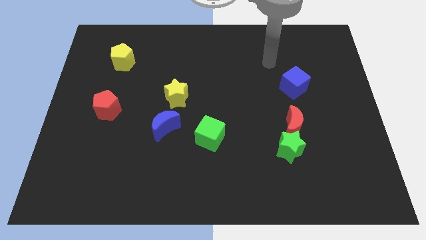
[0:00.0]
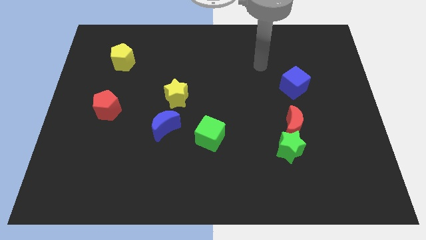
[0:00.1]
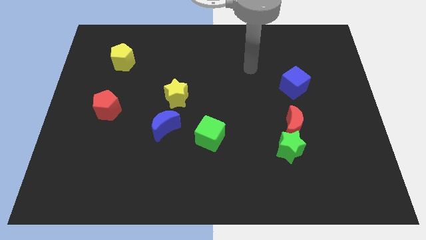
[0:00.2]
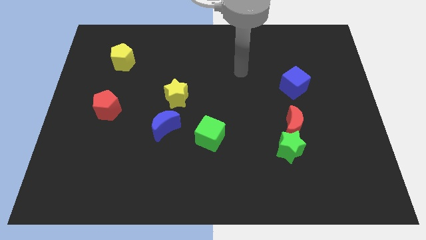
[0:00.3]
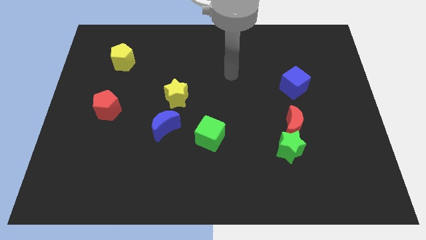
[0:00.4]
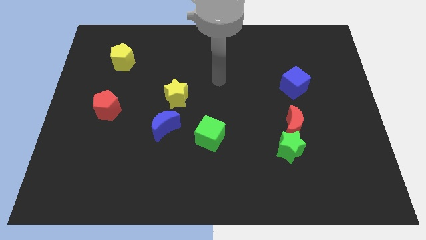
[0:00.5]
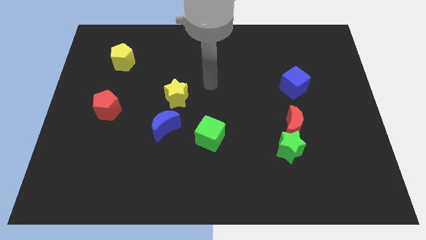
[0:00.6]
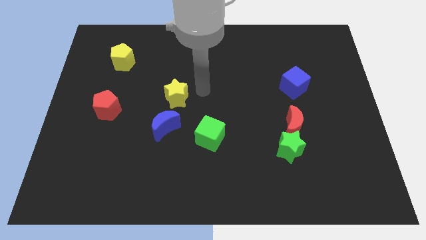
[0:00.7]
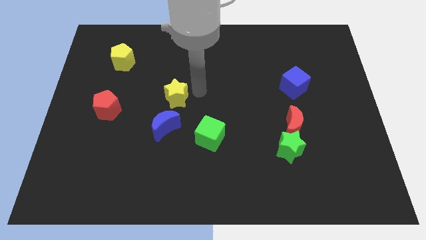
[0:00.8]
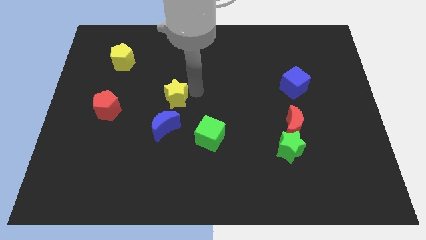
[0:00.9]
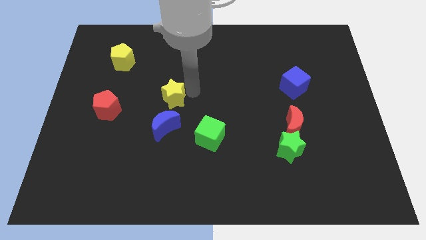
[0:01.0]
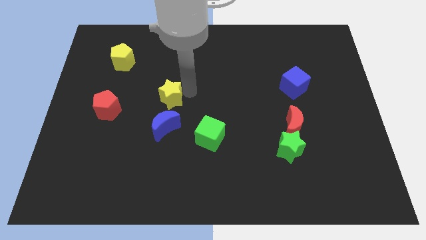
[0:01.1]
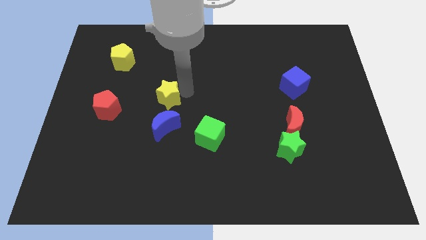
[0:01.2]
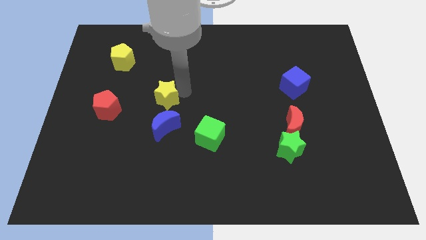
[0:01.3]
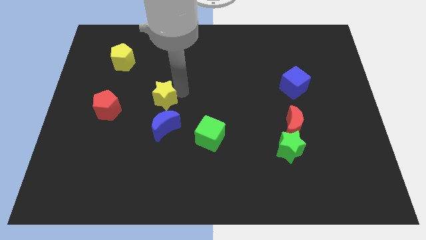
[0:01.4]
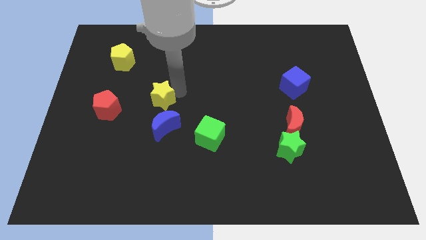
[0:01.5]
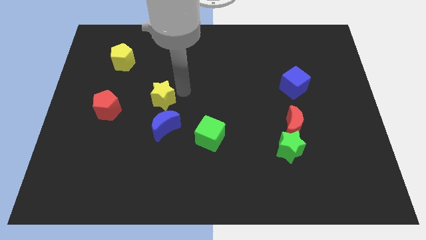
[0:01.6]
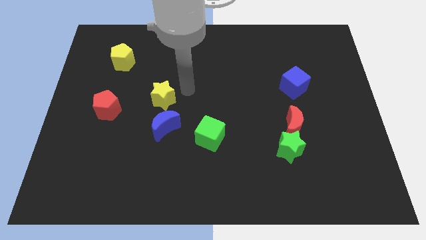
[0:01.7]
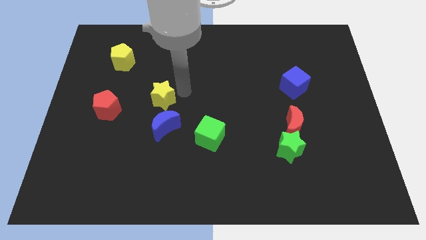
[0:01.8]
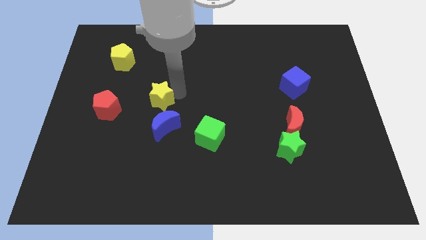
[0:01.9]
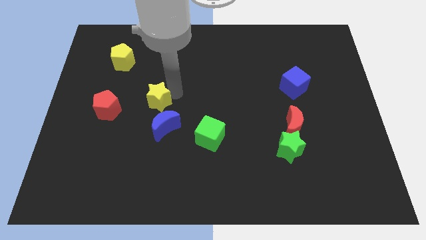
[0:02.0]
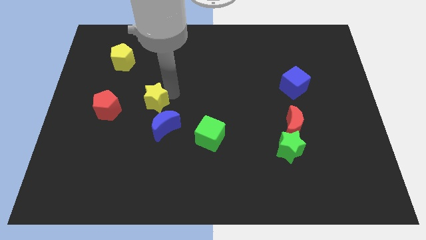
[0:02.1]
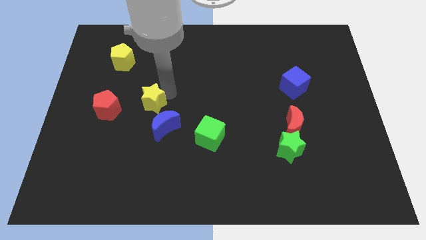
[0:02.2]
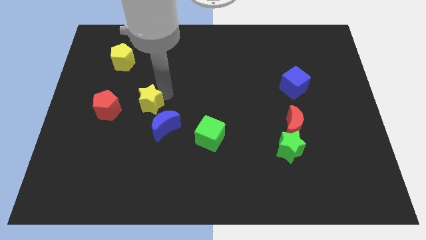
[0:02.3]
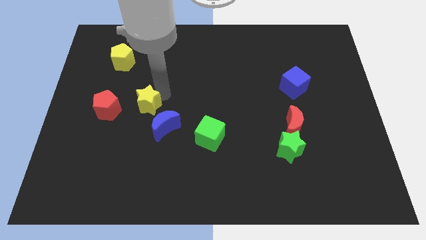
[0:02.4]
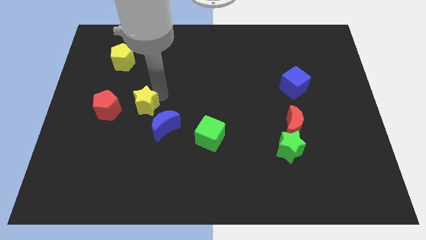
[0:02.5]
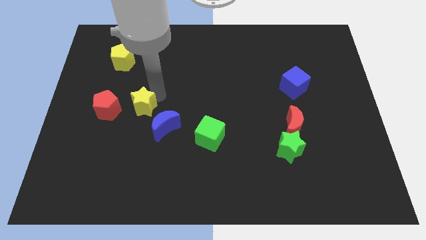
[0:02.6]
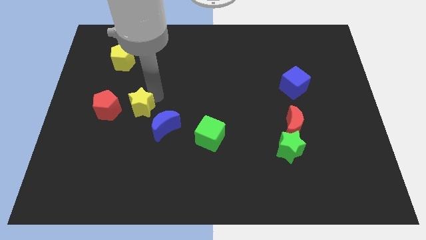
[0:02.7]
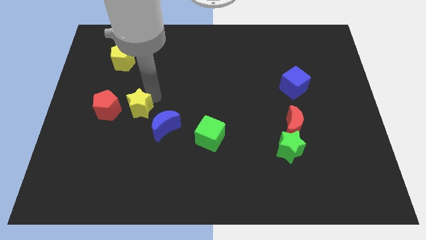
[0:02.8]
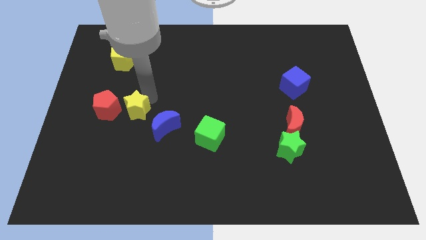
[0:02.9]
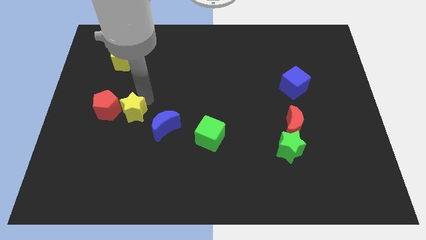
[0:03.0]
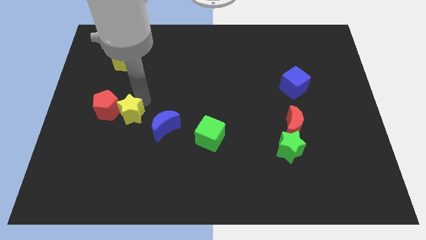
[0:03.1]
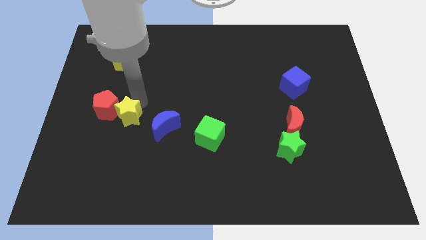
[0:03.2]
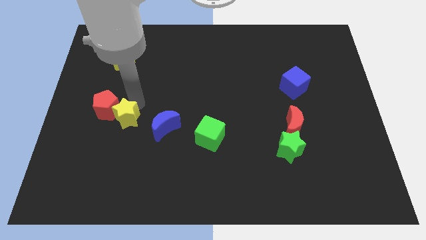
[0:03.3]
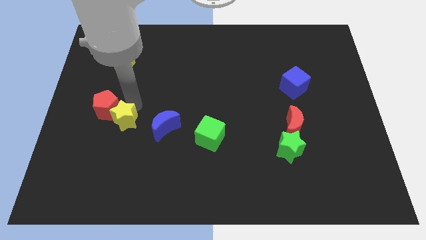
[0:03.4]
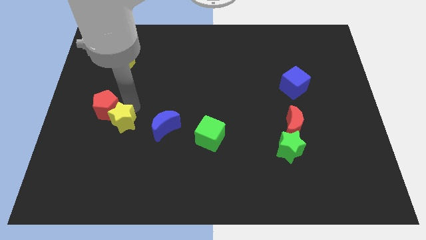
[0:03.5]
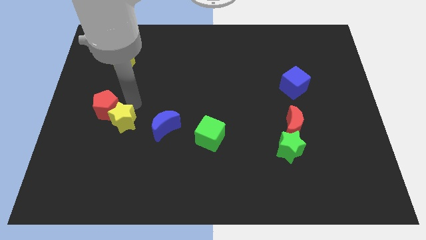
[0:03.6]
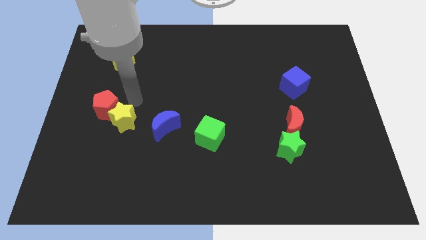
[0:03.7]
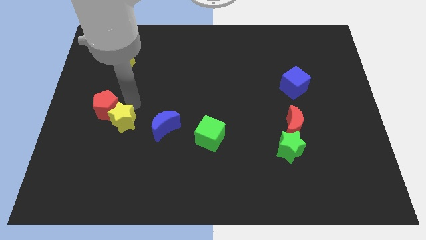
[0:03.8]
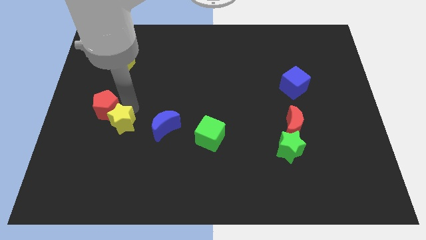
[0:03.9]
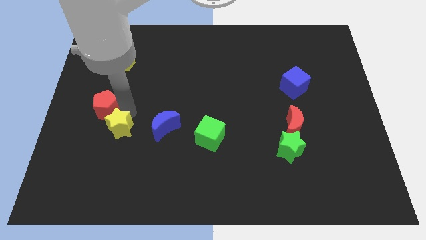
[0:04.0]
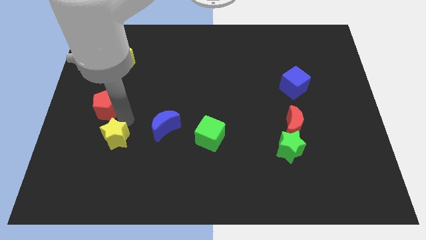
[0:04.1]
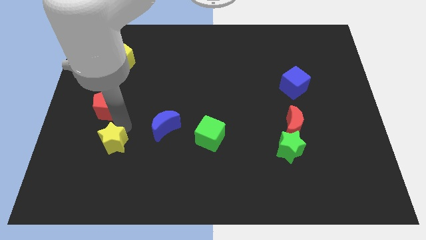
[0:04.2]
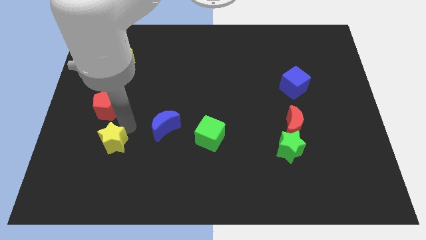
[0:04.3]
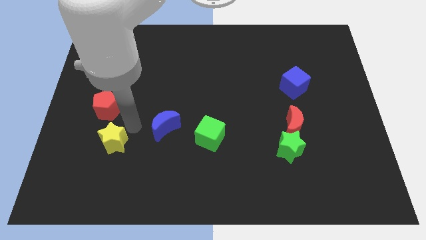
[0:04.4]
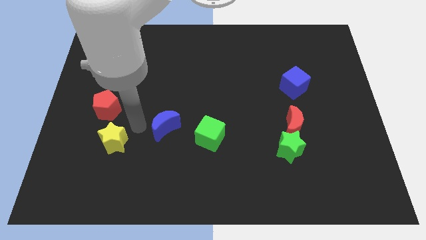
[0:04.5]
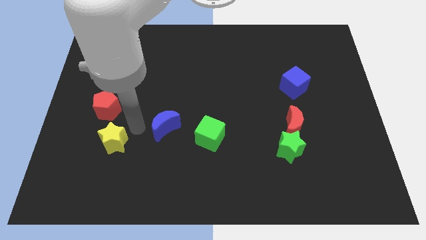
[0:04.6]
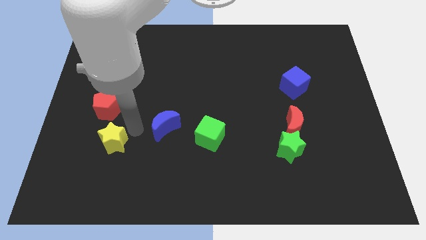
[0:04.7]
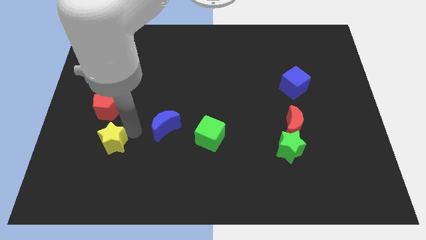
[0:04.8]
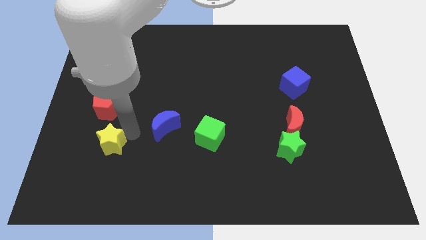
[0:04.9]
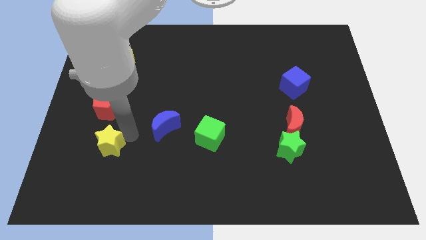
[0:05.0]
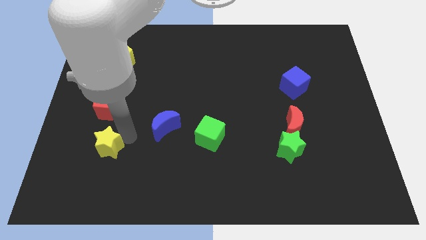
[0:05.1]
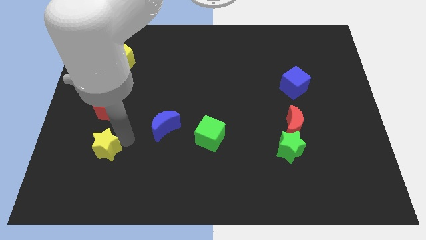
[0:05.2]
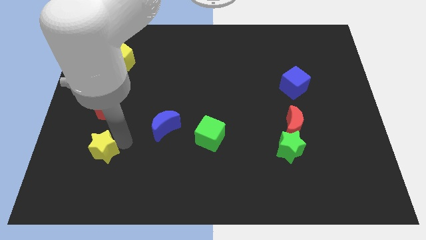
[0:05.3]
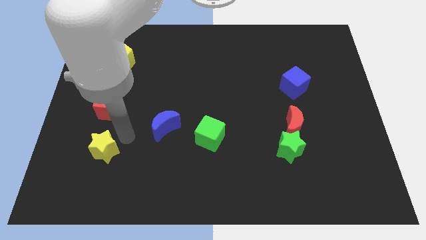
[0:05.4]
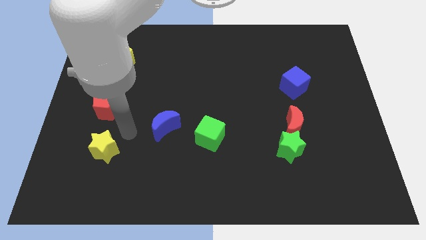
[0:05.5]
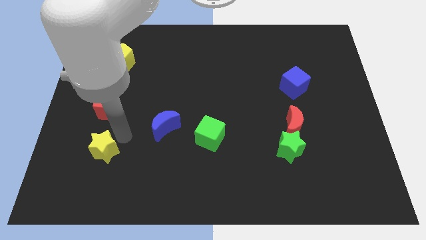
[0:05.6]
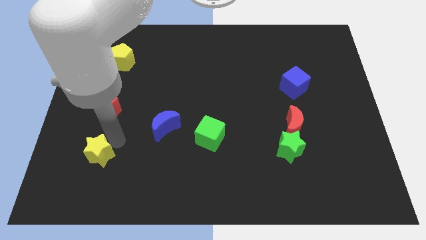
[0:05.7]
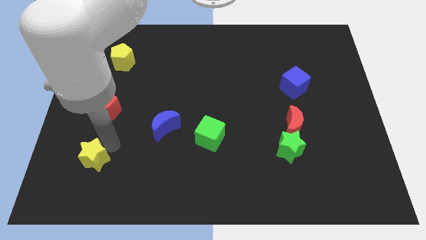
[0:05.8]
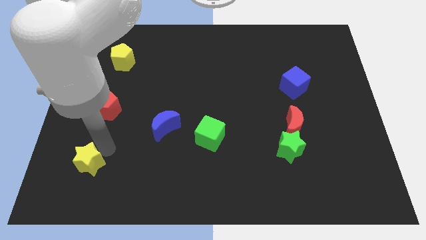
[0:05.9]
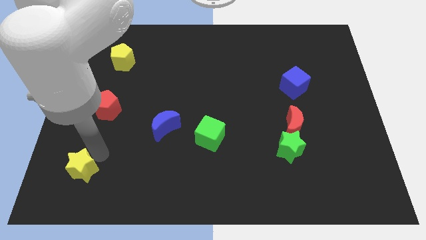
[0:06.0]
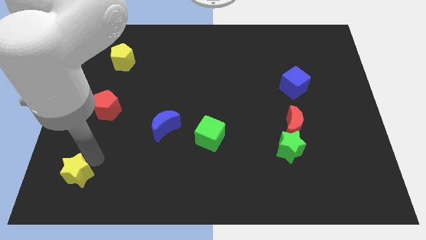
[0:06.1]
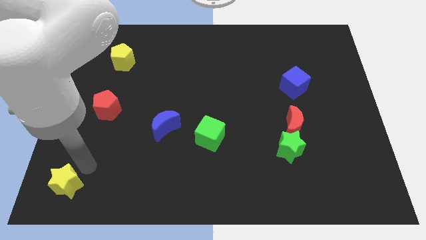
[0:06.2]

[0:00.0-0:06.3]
push the yellow star to the bottom left of the board
